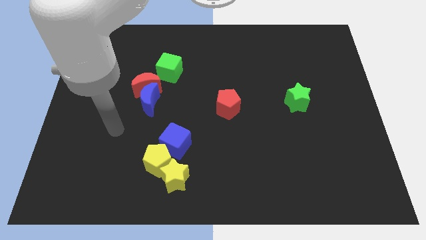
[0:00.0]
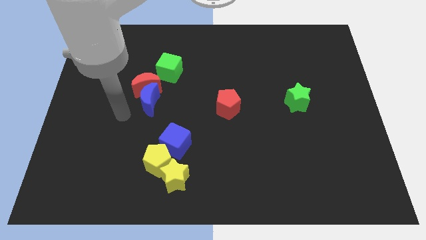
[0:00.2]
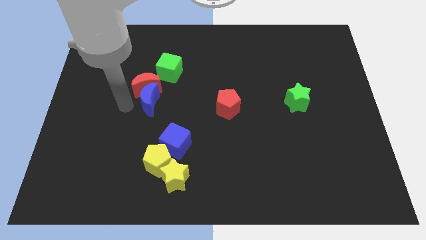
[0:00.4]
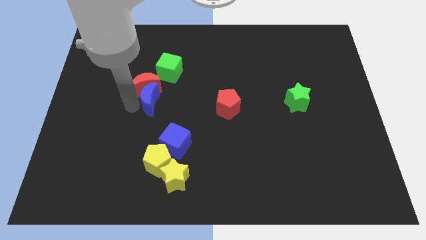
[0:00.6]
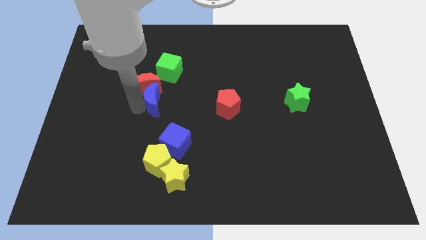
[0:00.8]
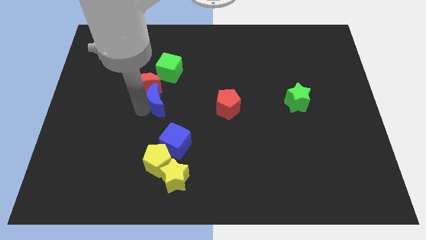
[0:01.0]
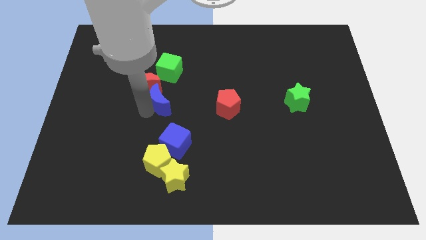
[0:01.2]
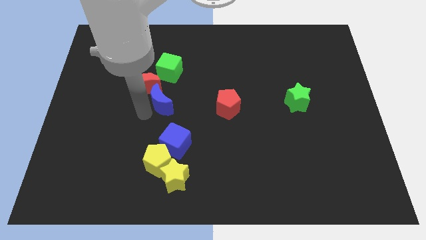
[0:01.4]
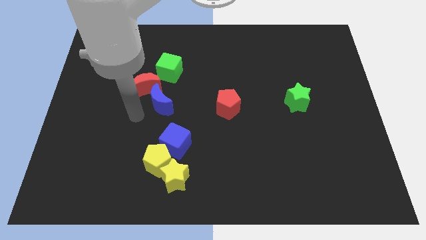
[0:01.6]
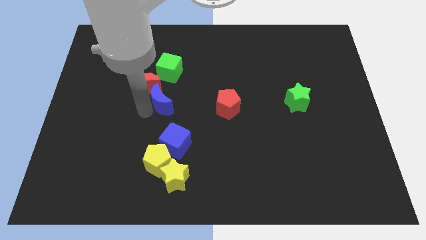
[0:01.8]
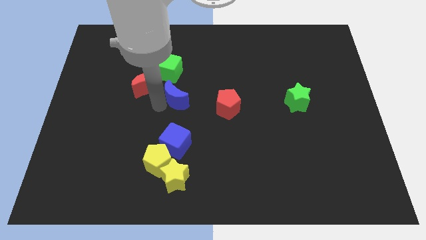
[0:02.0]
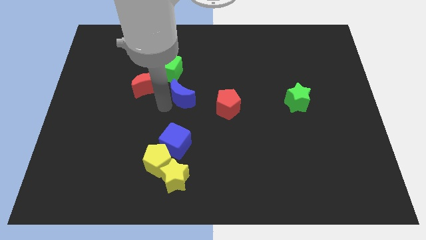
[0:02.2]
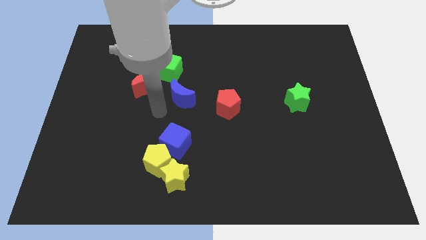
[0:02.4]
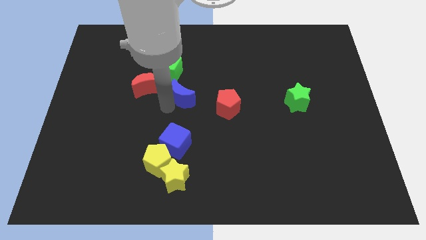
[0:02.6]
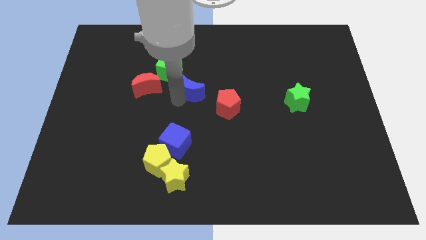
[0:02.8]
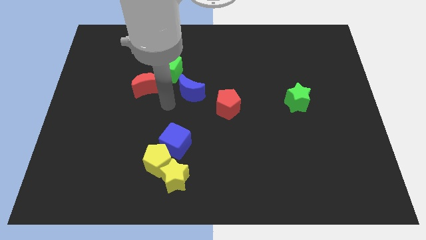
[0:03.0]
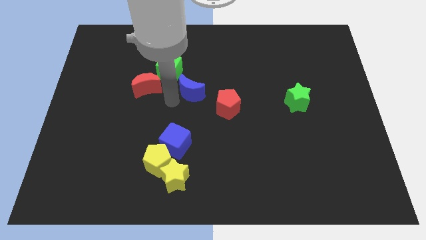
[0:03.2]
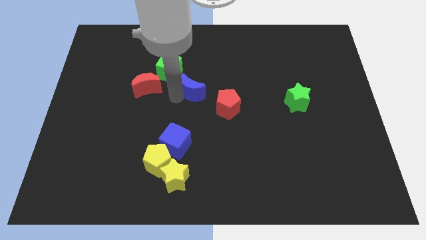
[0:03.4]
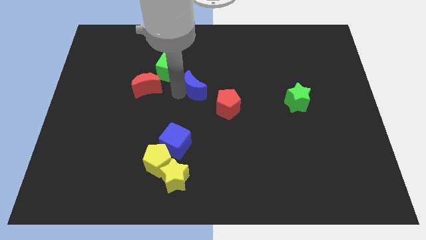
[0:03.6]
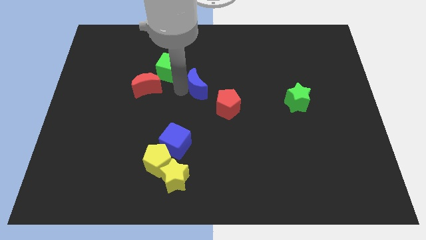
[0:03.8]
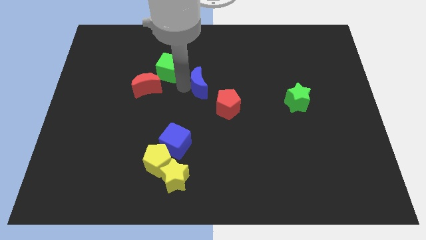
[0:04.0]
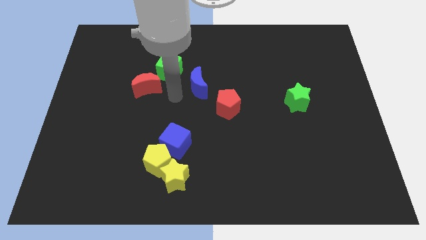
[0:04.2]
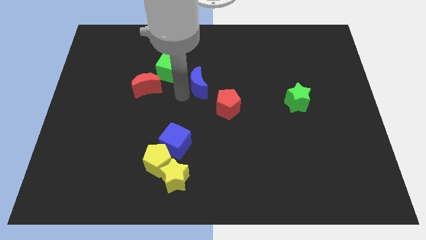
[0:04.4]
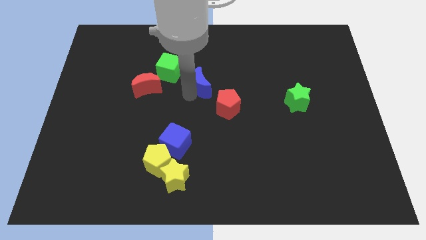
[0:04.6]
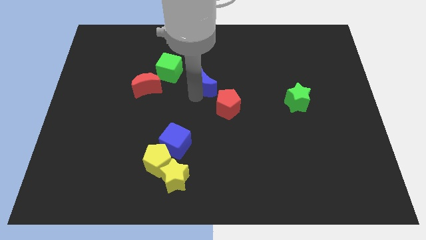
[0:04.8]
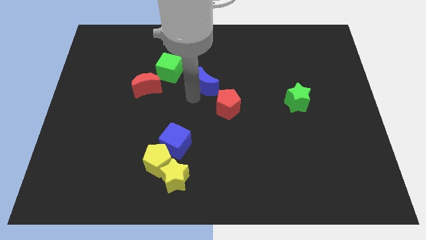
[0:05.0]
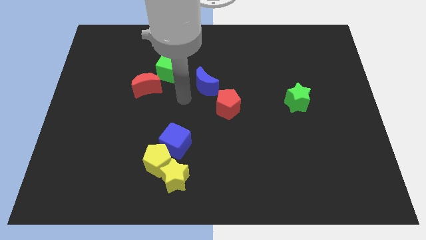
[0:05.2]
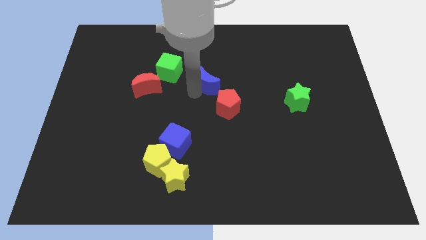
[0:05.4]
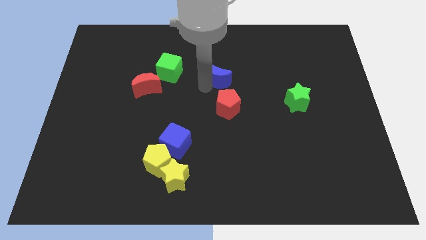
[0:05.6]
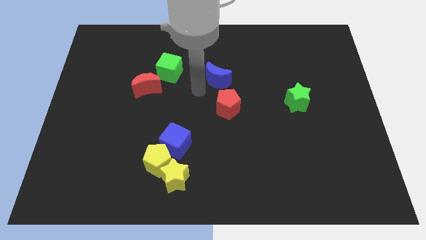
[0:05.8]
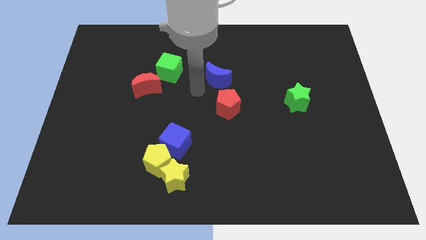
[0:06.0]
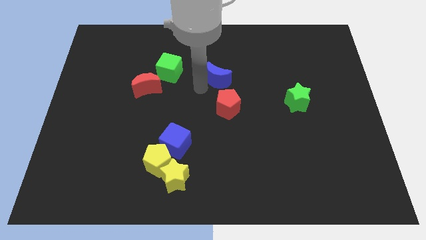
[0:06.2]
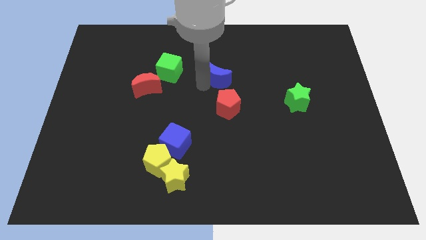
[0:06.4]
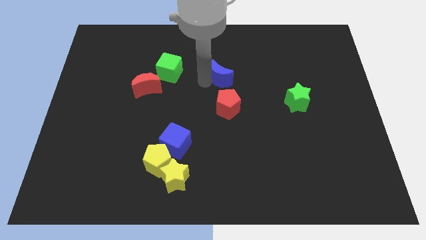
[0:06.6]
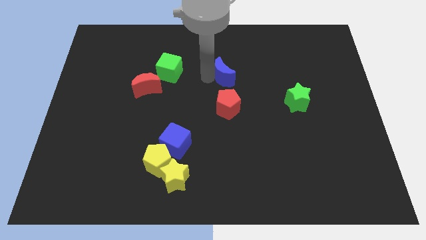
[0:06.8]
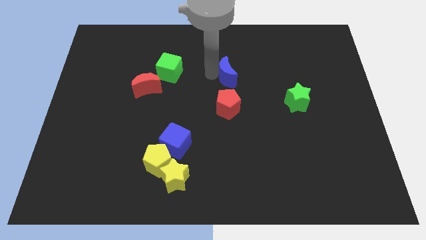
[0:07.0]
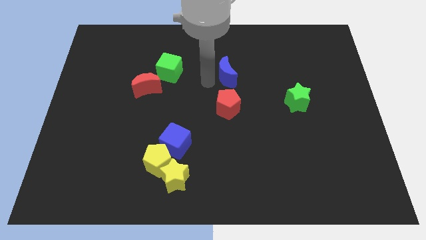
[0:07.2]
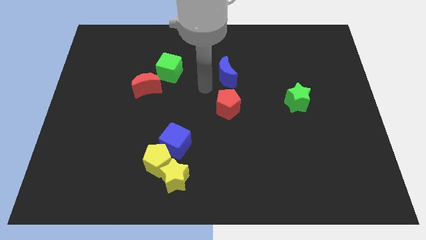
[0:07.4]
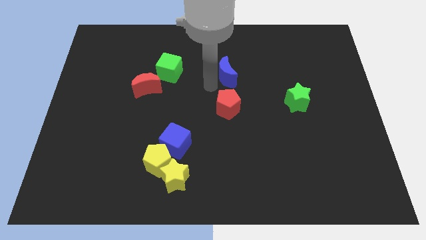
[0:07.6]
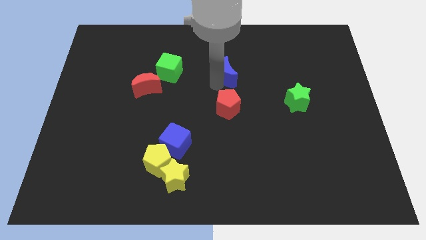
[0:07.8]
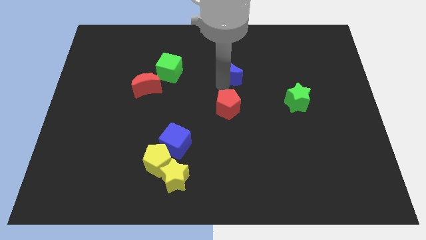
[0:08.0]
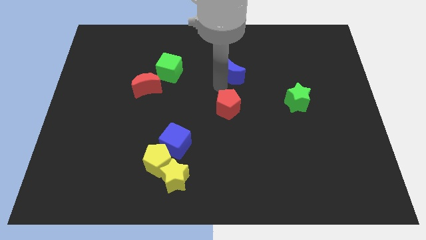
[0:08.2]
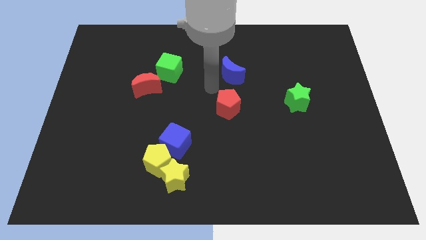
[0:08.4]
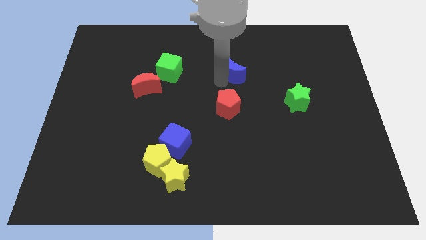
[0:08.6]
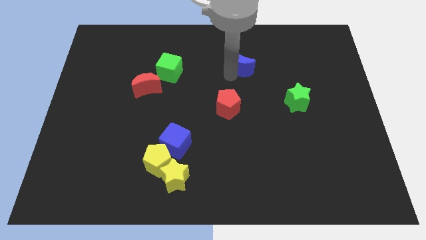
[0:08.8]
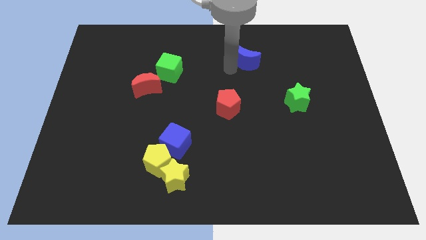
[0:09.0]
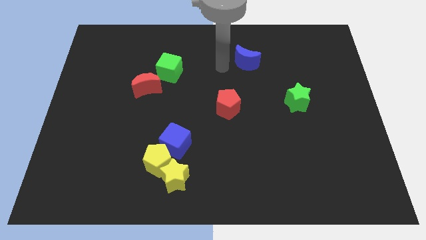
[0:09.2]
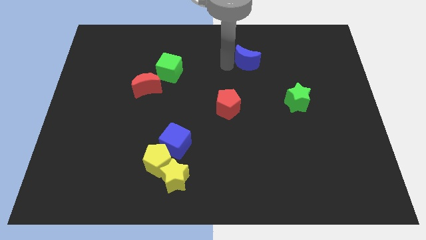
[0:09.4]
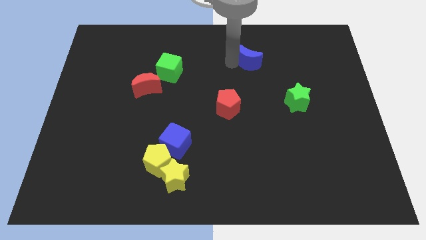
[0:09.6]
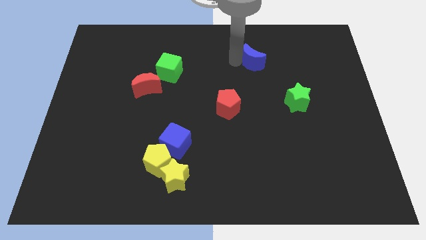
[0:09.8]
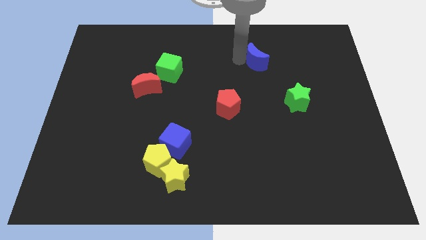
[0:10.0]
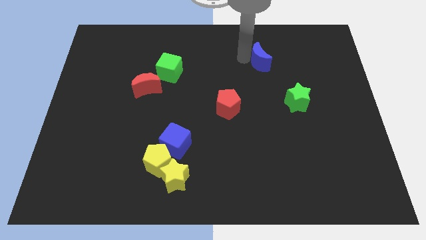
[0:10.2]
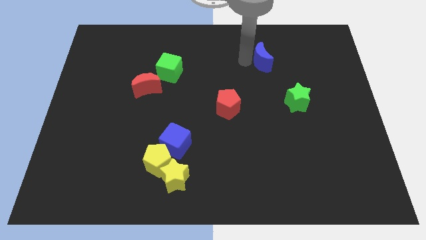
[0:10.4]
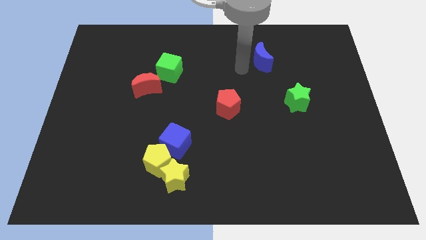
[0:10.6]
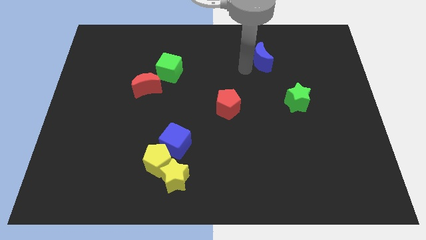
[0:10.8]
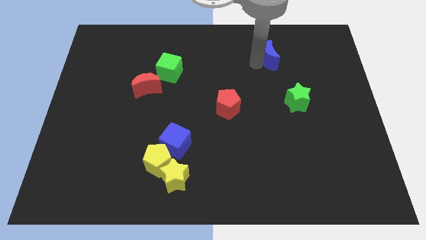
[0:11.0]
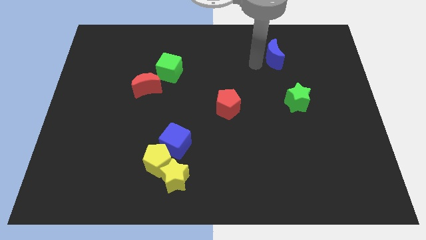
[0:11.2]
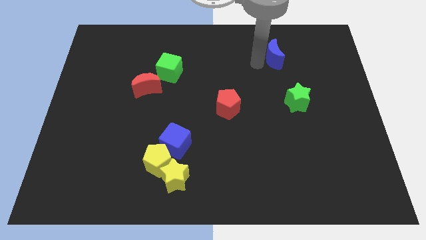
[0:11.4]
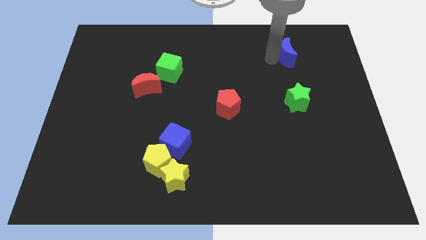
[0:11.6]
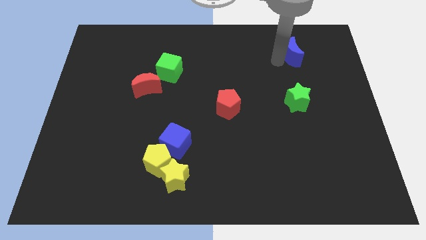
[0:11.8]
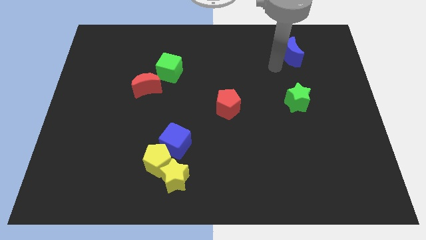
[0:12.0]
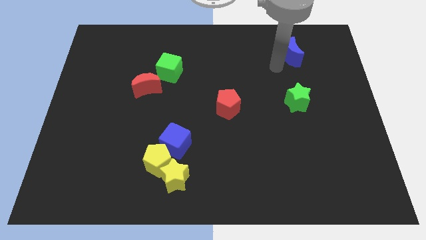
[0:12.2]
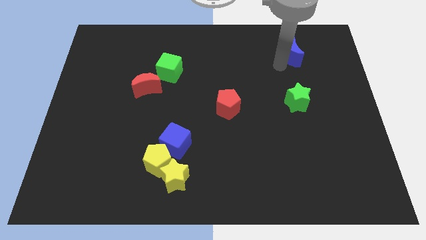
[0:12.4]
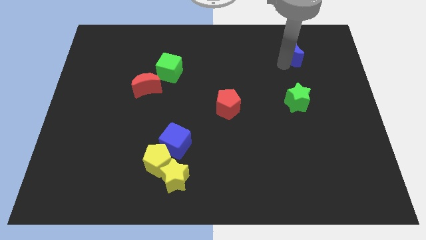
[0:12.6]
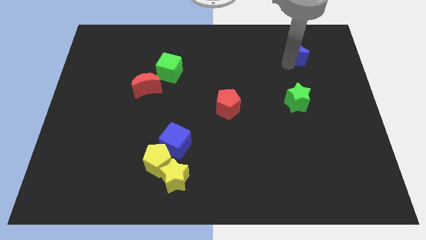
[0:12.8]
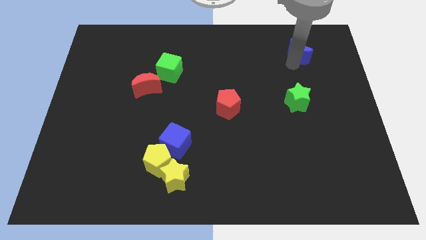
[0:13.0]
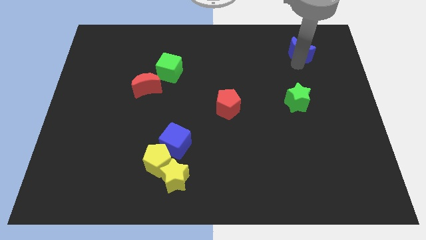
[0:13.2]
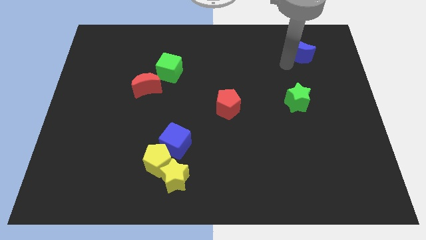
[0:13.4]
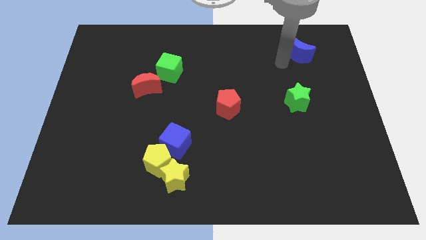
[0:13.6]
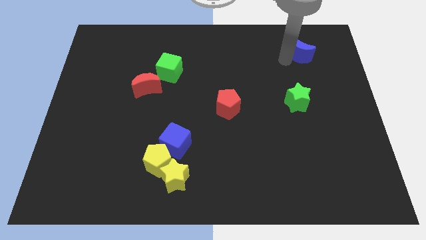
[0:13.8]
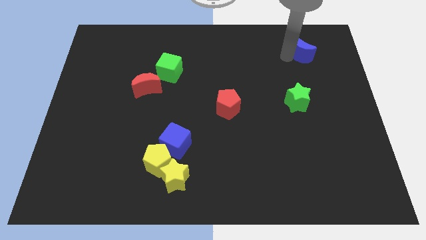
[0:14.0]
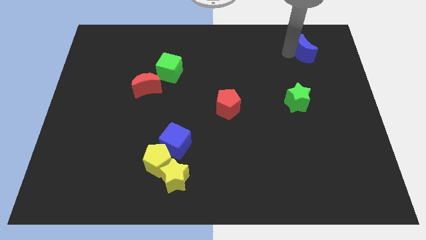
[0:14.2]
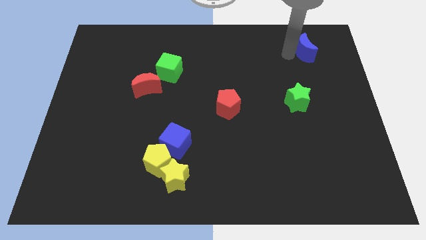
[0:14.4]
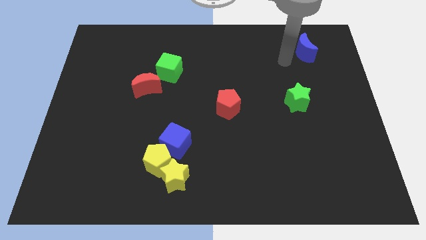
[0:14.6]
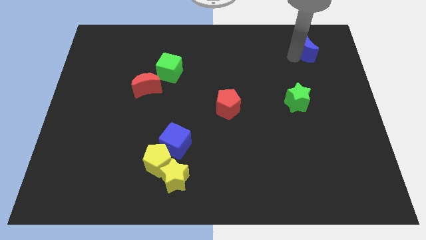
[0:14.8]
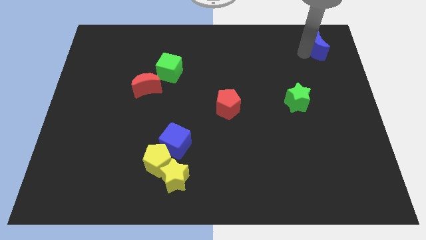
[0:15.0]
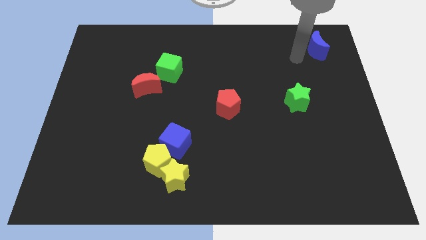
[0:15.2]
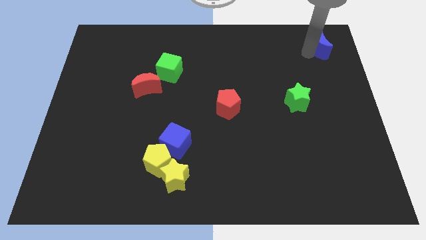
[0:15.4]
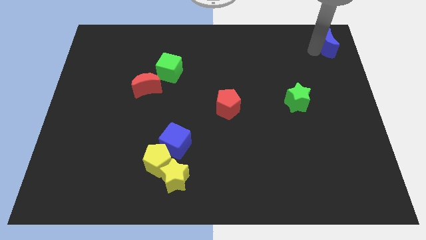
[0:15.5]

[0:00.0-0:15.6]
put the blue moon to the upper right corner
